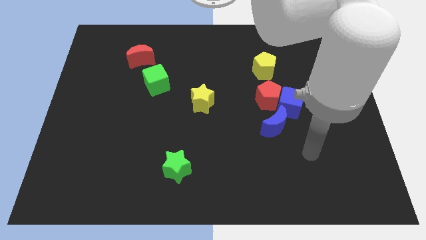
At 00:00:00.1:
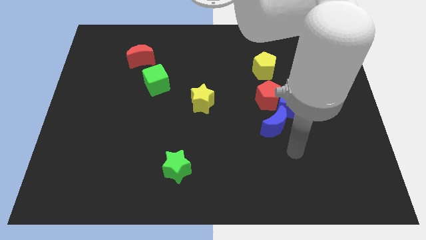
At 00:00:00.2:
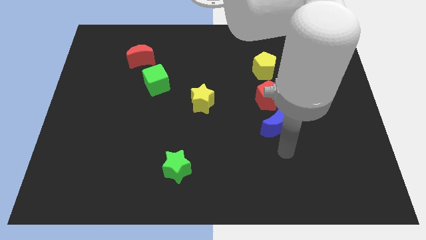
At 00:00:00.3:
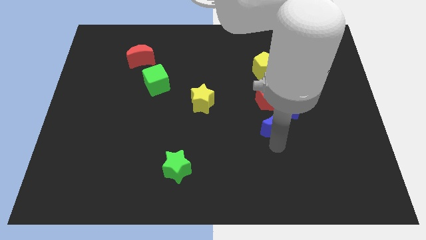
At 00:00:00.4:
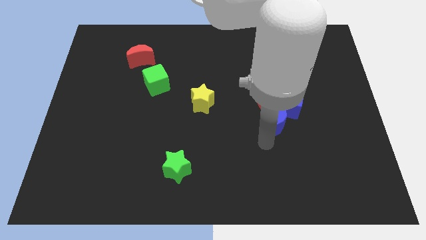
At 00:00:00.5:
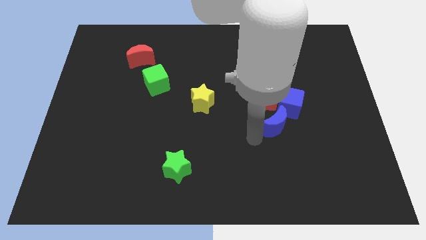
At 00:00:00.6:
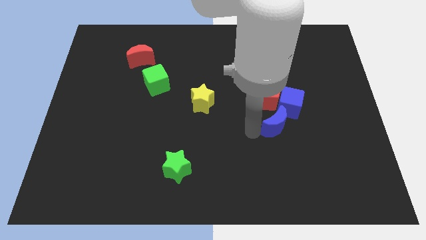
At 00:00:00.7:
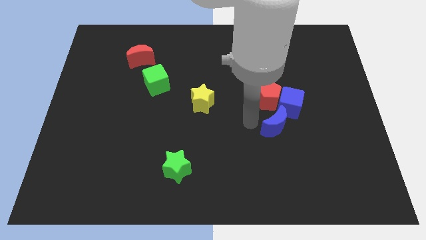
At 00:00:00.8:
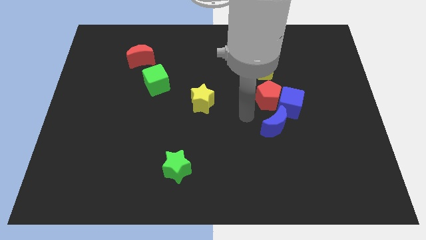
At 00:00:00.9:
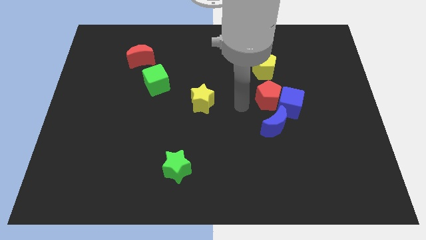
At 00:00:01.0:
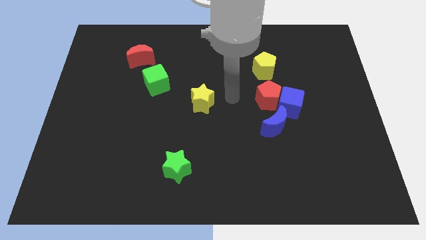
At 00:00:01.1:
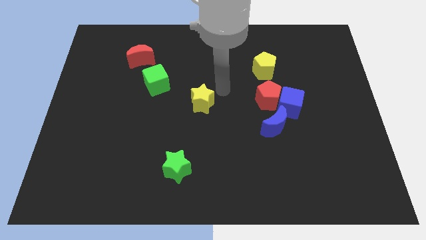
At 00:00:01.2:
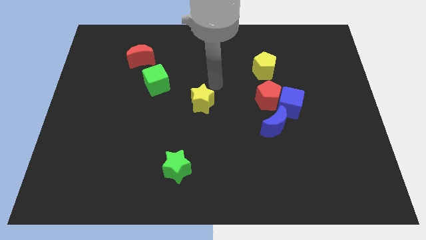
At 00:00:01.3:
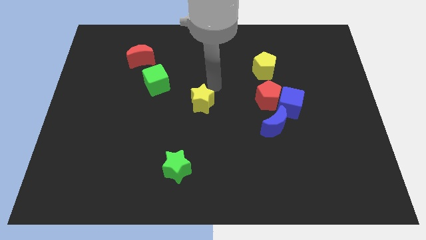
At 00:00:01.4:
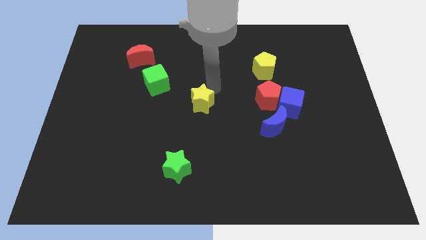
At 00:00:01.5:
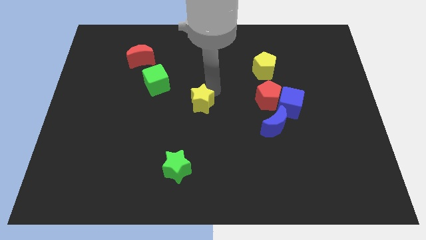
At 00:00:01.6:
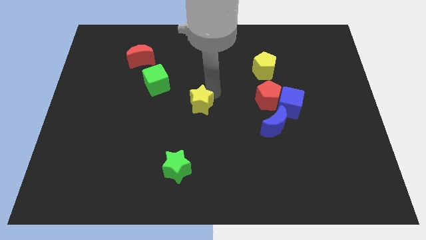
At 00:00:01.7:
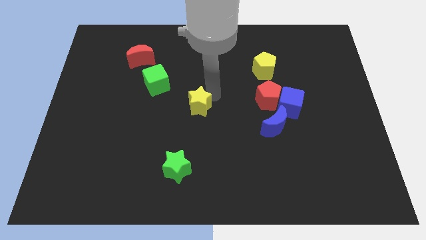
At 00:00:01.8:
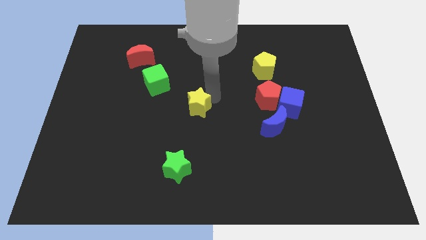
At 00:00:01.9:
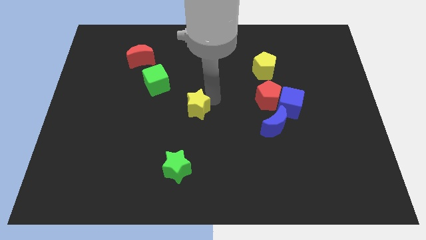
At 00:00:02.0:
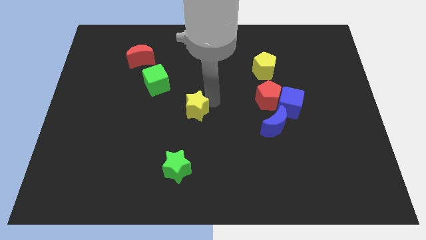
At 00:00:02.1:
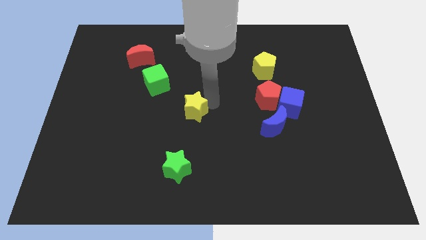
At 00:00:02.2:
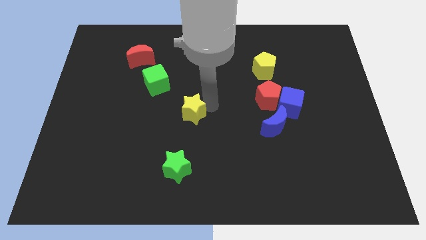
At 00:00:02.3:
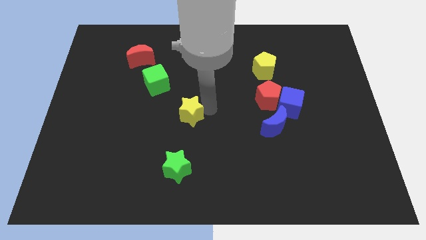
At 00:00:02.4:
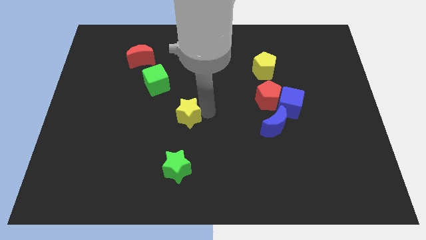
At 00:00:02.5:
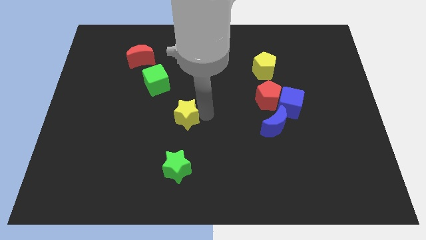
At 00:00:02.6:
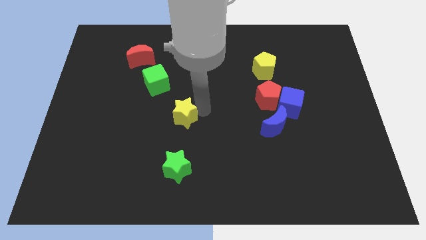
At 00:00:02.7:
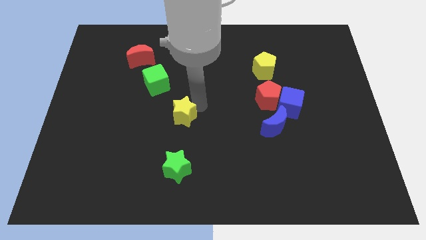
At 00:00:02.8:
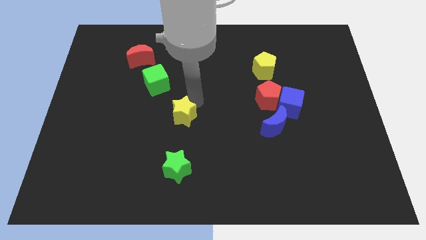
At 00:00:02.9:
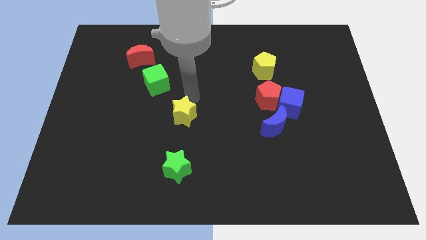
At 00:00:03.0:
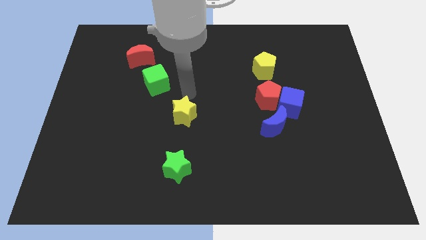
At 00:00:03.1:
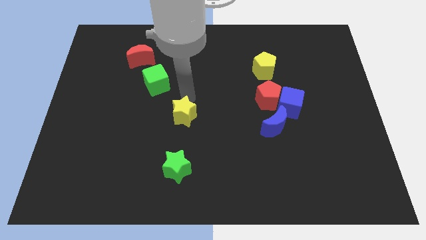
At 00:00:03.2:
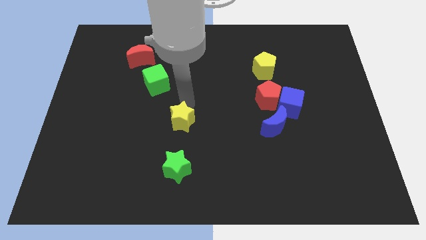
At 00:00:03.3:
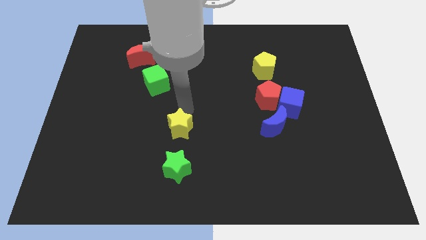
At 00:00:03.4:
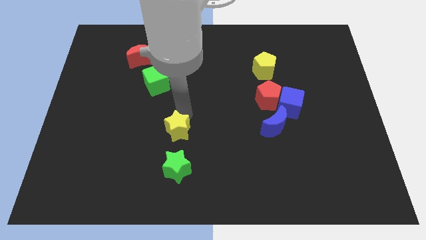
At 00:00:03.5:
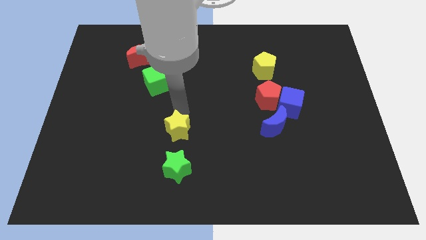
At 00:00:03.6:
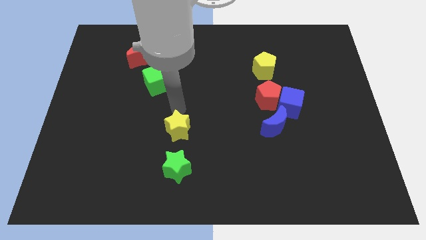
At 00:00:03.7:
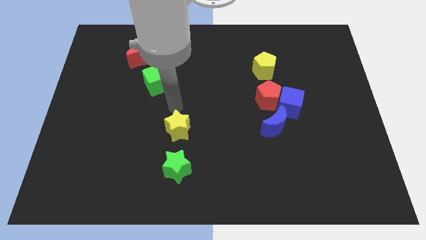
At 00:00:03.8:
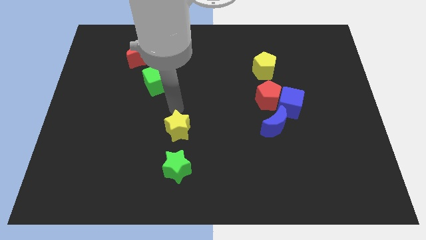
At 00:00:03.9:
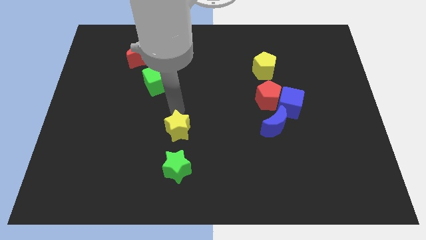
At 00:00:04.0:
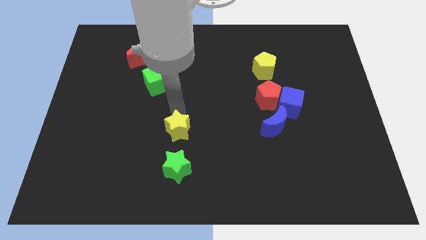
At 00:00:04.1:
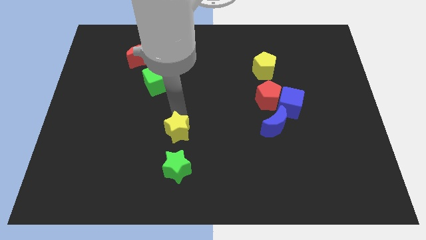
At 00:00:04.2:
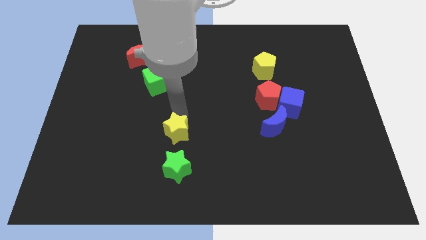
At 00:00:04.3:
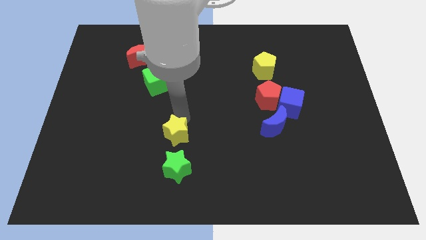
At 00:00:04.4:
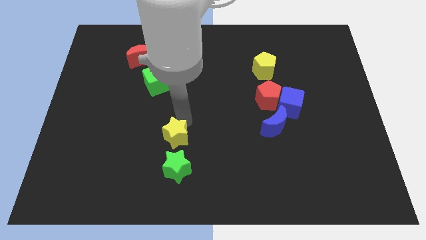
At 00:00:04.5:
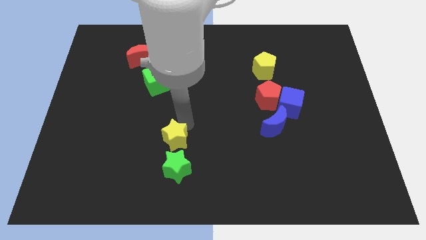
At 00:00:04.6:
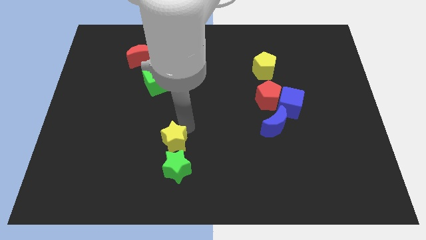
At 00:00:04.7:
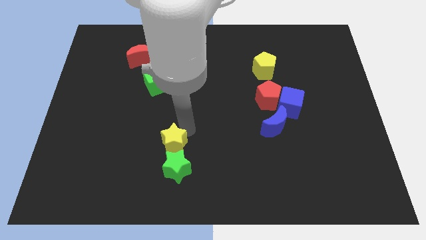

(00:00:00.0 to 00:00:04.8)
push the yellow star towards the green star

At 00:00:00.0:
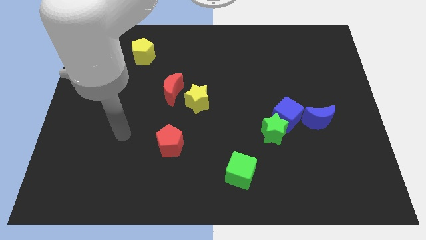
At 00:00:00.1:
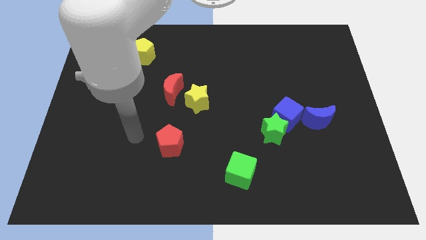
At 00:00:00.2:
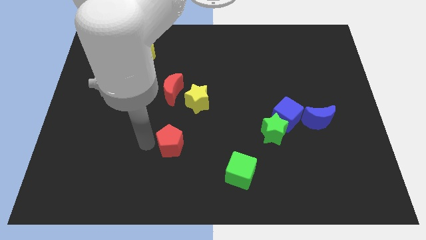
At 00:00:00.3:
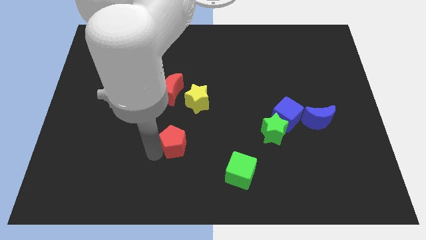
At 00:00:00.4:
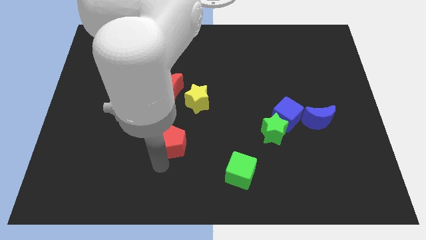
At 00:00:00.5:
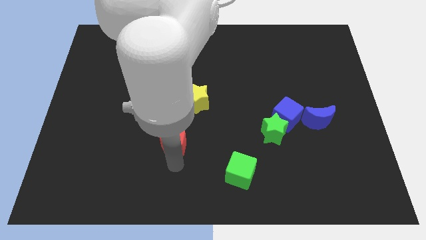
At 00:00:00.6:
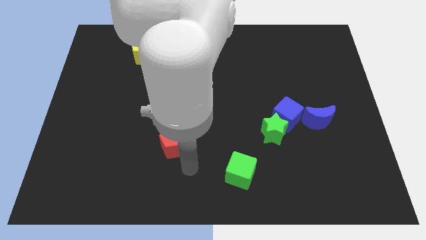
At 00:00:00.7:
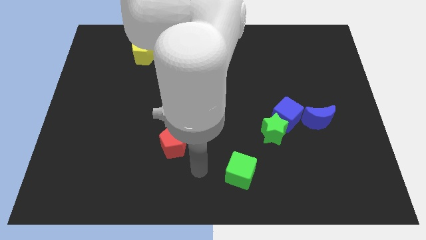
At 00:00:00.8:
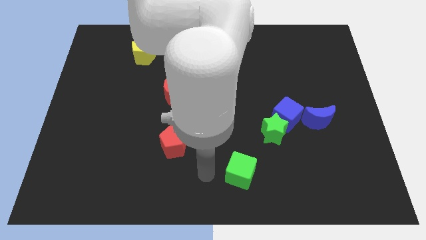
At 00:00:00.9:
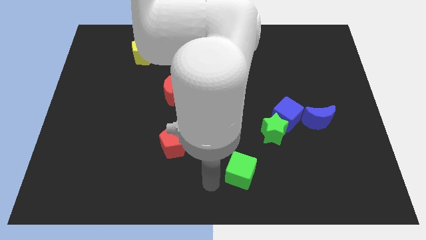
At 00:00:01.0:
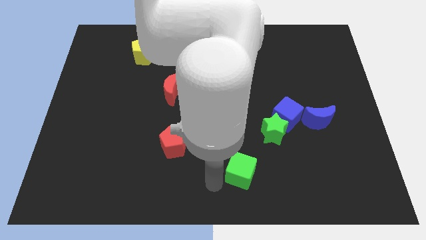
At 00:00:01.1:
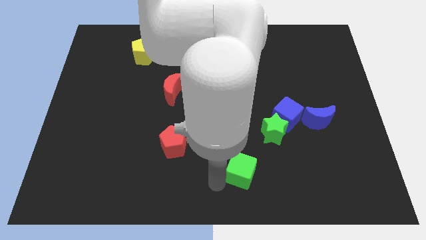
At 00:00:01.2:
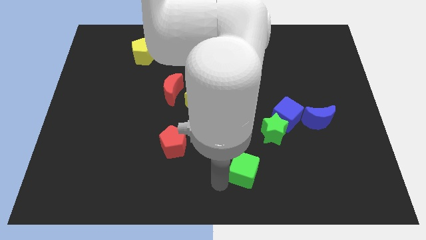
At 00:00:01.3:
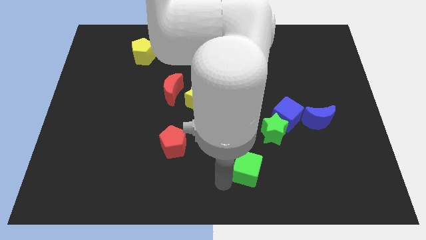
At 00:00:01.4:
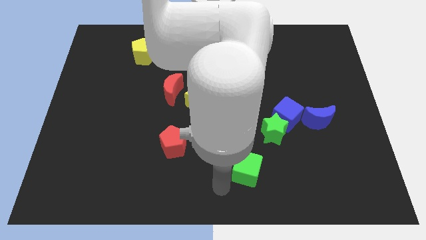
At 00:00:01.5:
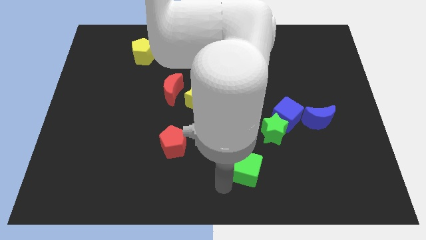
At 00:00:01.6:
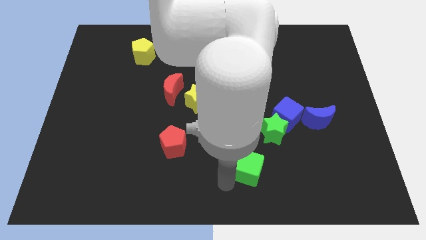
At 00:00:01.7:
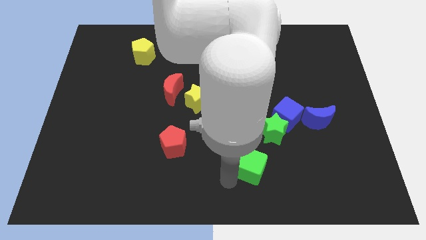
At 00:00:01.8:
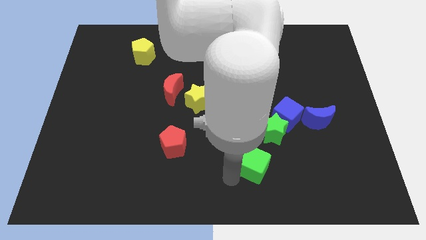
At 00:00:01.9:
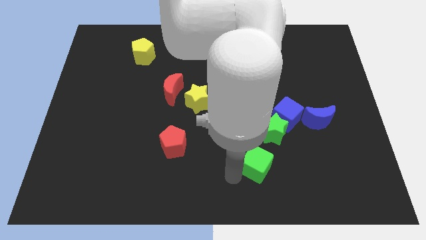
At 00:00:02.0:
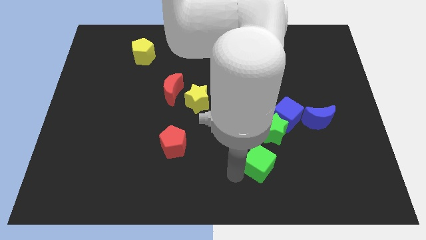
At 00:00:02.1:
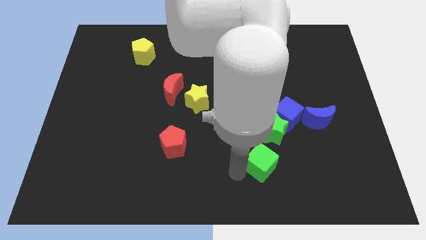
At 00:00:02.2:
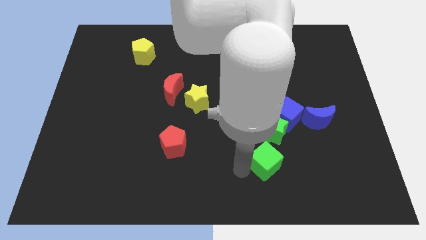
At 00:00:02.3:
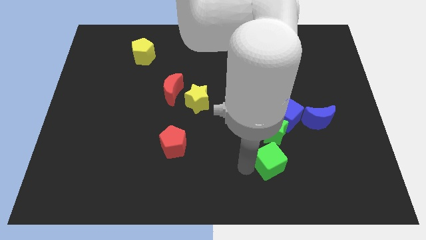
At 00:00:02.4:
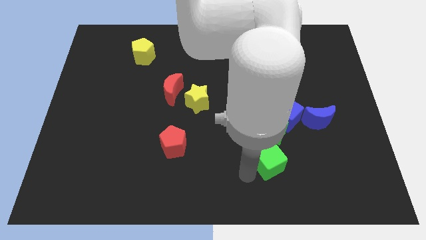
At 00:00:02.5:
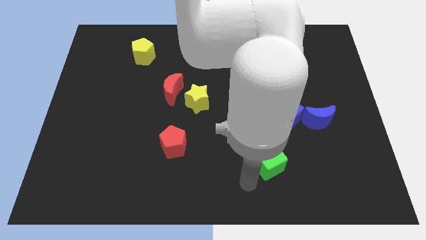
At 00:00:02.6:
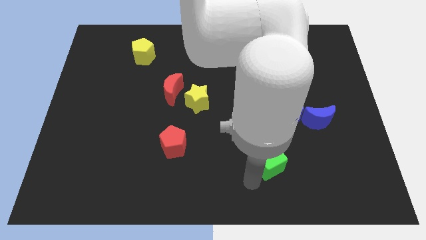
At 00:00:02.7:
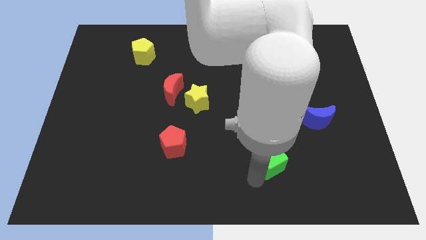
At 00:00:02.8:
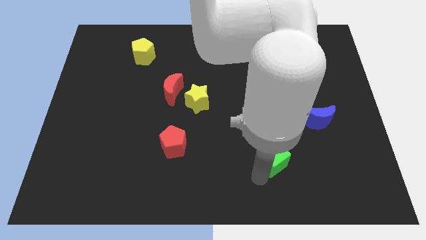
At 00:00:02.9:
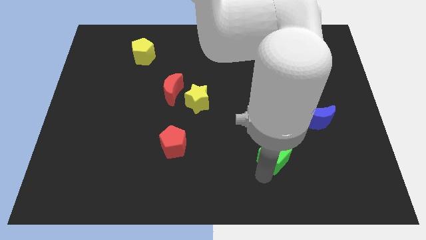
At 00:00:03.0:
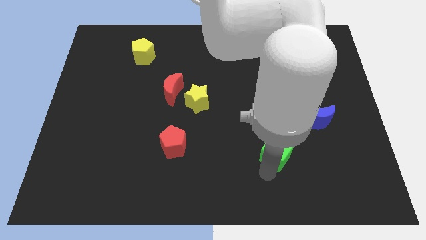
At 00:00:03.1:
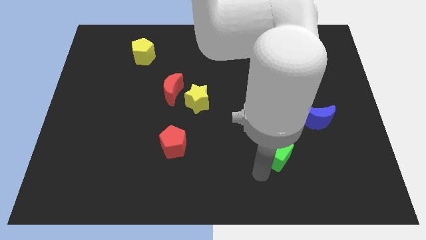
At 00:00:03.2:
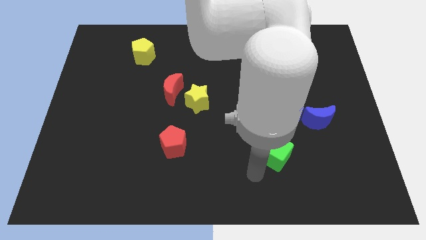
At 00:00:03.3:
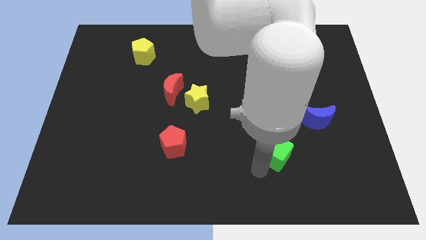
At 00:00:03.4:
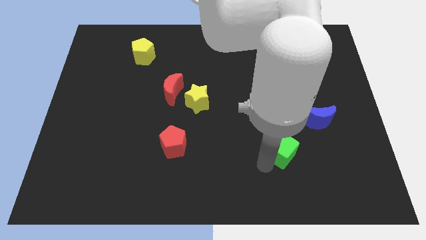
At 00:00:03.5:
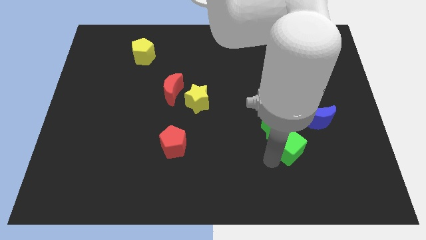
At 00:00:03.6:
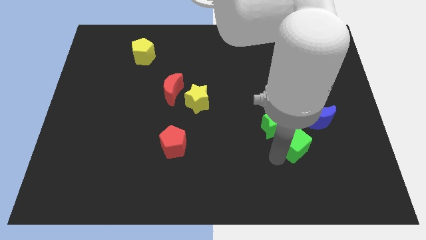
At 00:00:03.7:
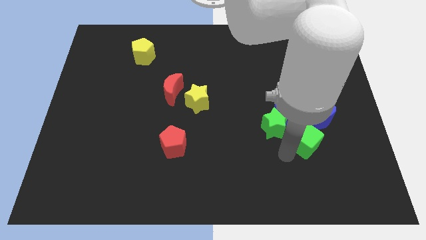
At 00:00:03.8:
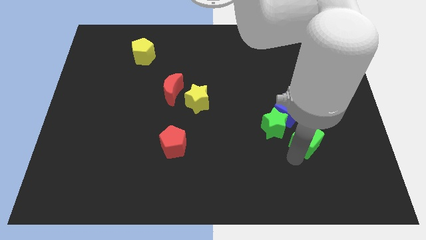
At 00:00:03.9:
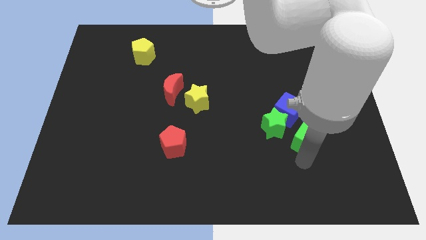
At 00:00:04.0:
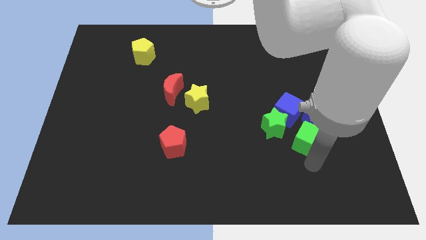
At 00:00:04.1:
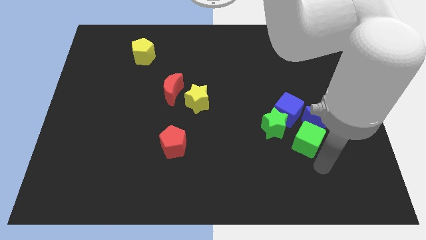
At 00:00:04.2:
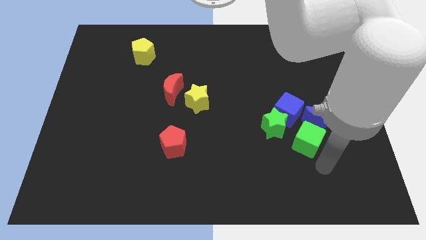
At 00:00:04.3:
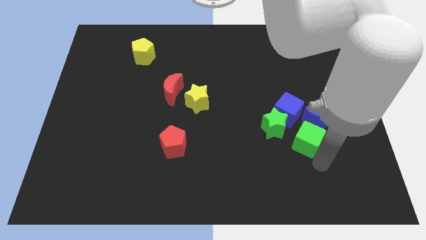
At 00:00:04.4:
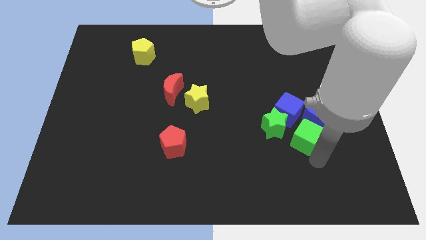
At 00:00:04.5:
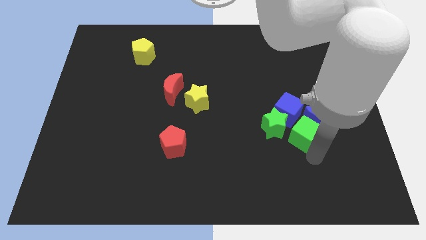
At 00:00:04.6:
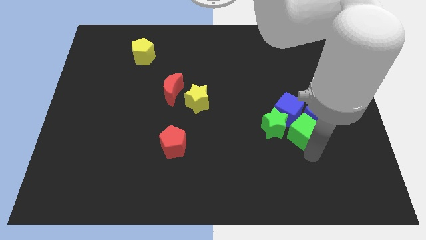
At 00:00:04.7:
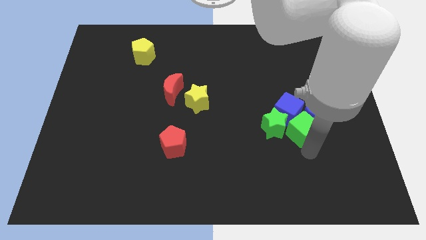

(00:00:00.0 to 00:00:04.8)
slide the green cube next to the blue cube
